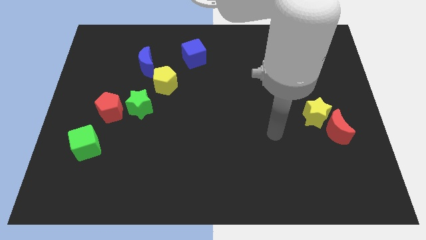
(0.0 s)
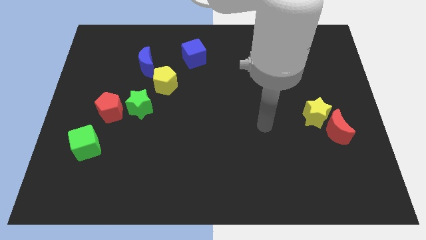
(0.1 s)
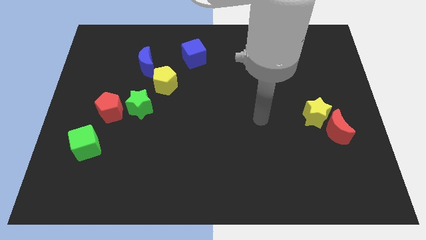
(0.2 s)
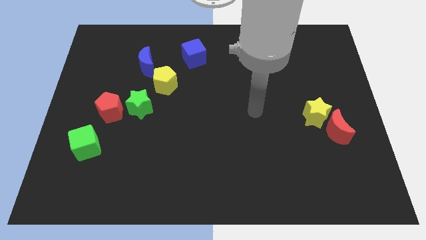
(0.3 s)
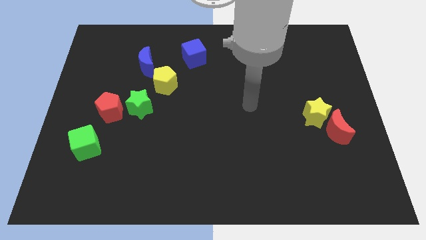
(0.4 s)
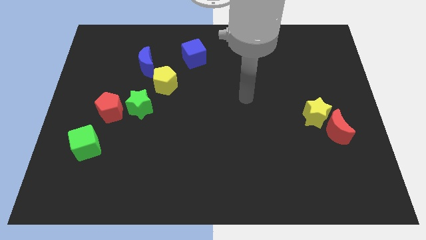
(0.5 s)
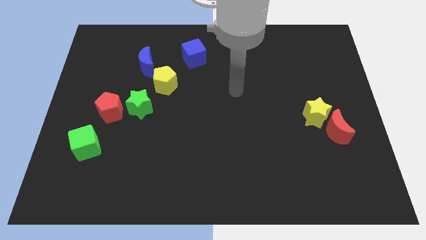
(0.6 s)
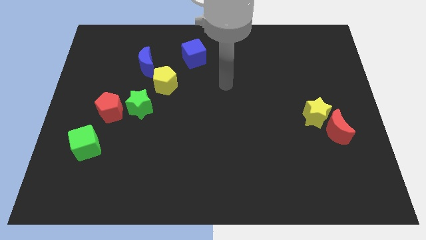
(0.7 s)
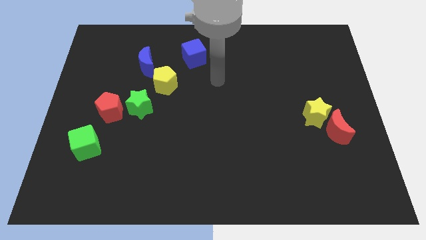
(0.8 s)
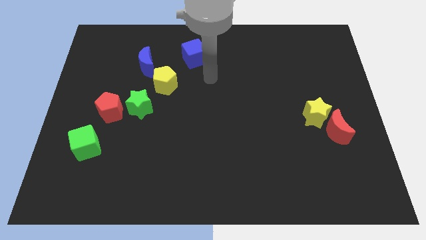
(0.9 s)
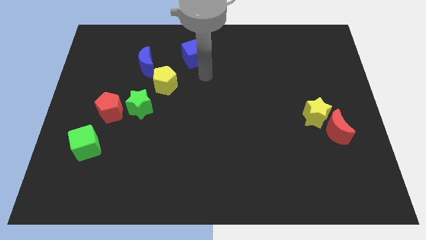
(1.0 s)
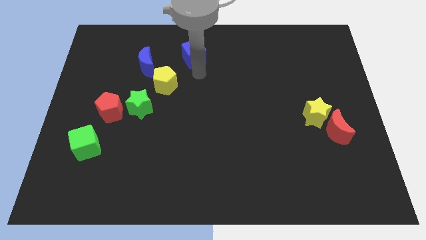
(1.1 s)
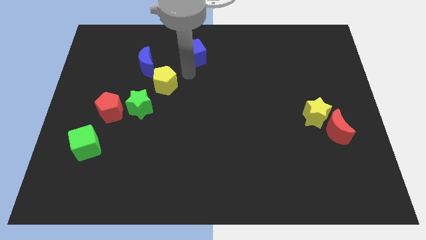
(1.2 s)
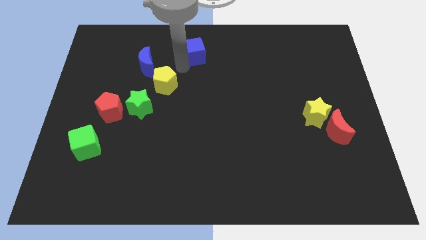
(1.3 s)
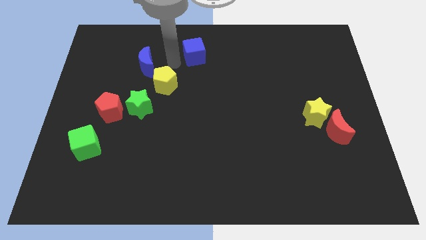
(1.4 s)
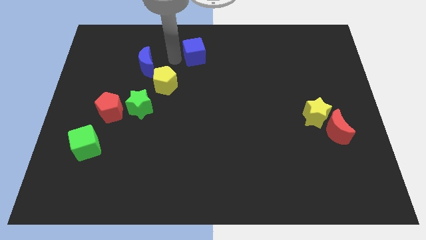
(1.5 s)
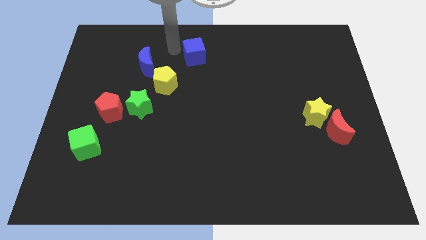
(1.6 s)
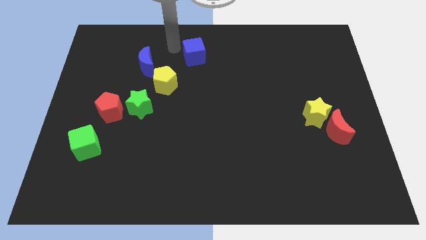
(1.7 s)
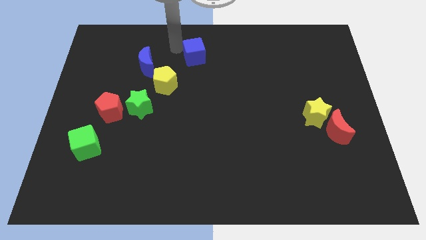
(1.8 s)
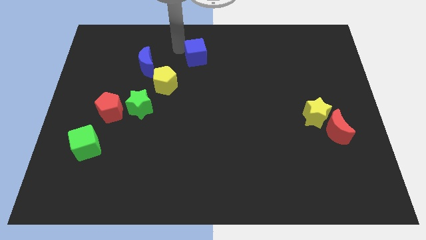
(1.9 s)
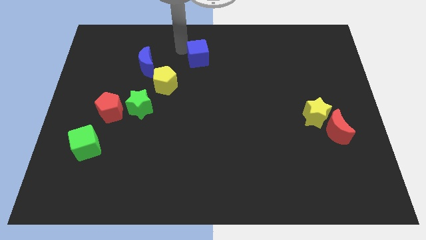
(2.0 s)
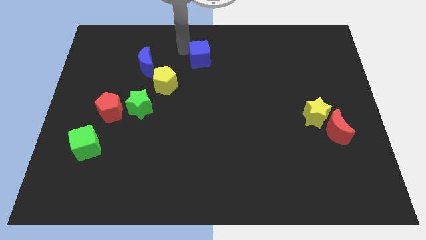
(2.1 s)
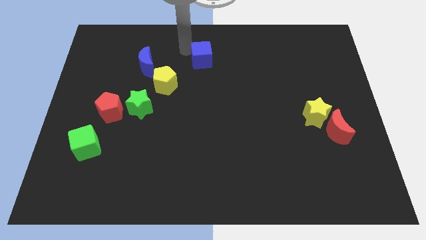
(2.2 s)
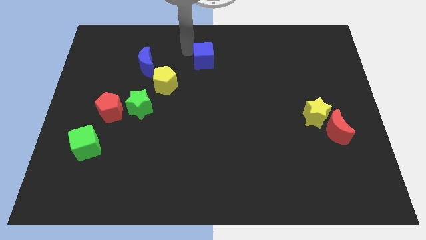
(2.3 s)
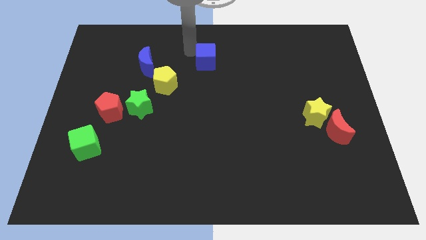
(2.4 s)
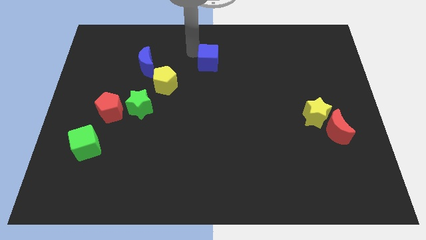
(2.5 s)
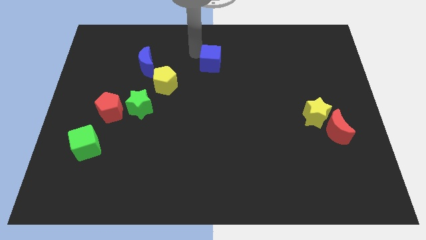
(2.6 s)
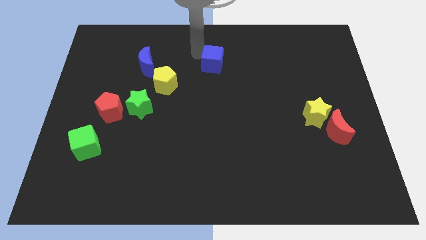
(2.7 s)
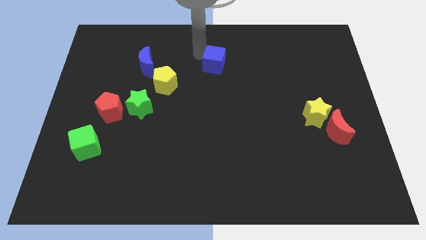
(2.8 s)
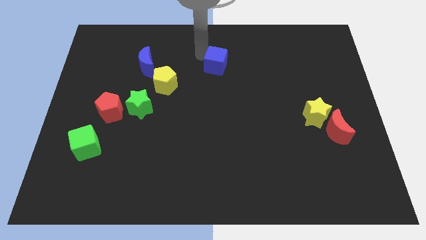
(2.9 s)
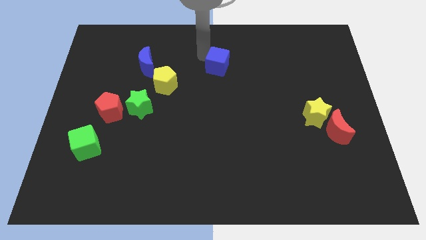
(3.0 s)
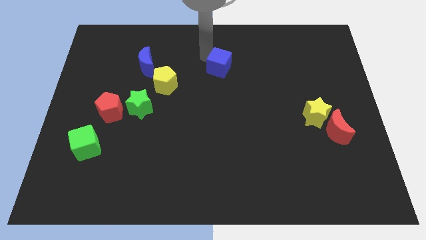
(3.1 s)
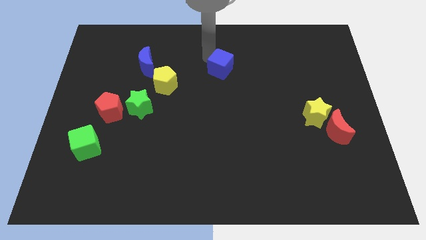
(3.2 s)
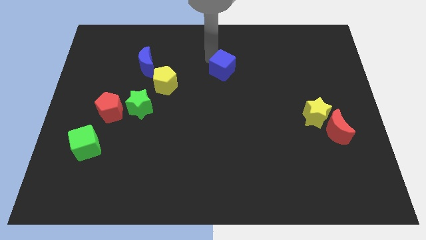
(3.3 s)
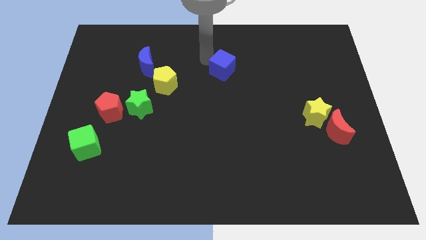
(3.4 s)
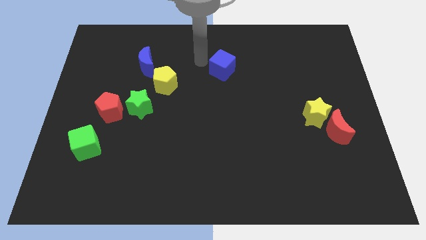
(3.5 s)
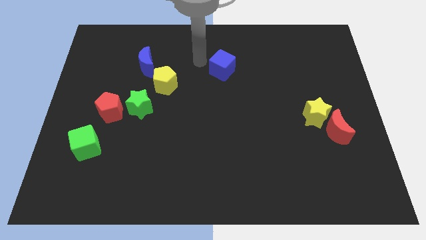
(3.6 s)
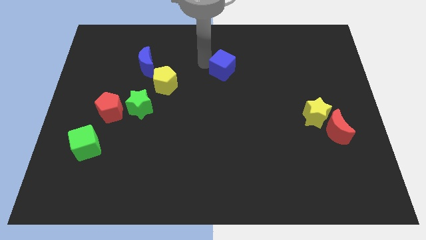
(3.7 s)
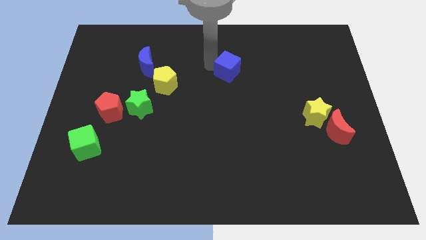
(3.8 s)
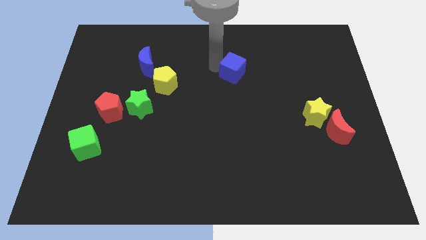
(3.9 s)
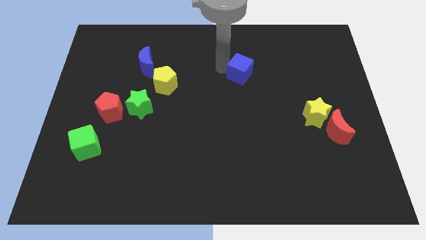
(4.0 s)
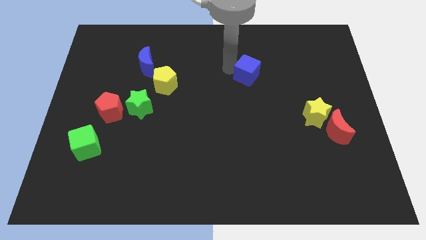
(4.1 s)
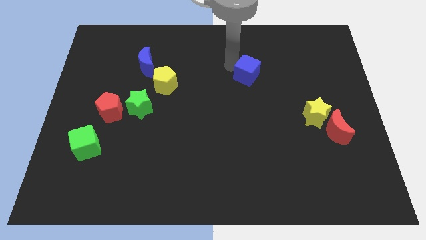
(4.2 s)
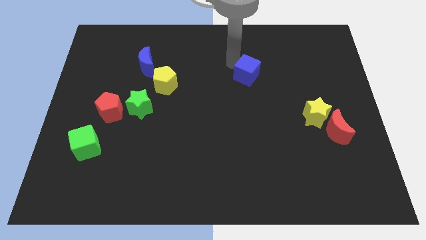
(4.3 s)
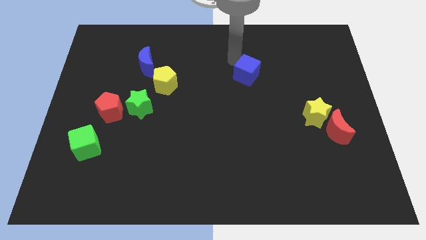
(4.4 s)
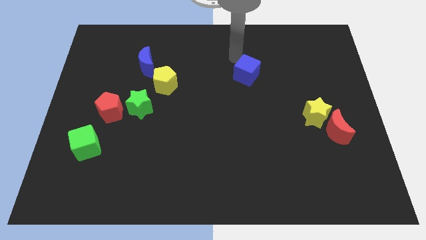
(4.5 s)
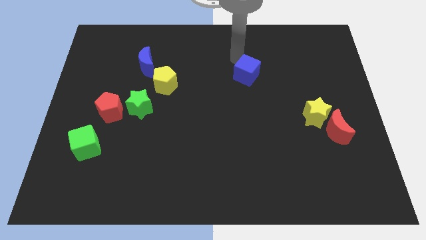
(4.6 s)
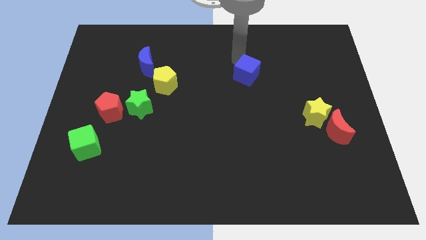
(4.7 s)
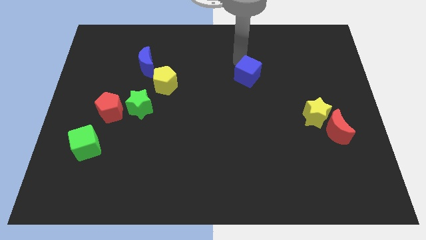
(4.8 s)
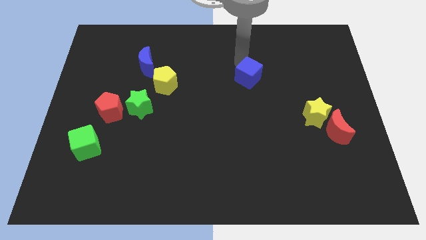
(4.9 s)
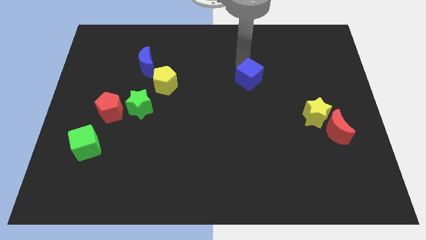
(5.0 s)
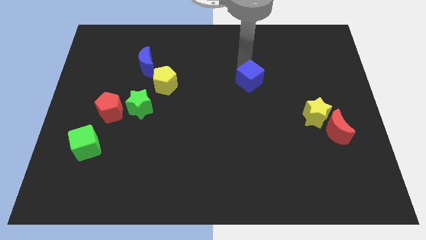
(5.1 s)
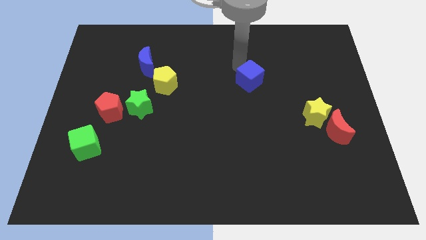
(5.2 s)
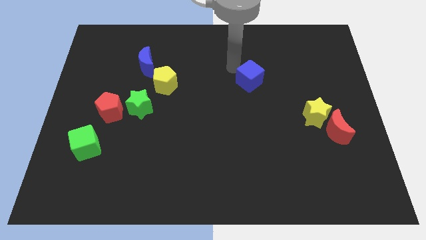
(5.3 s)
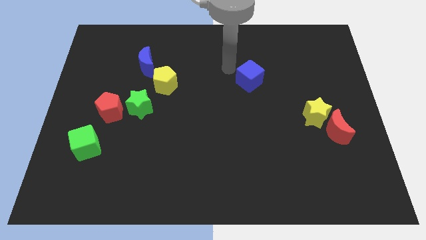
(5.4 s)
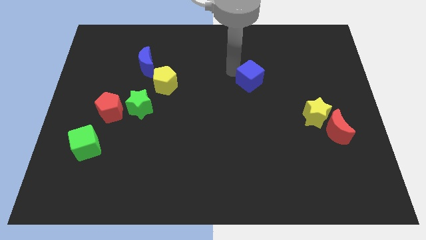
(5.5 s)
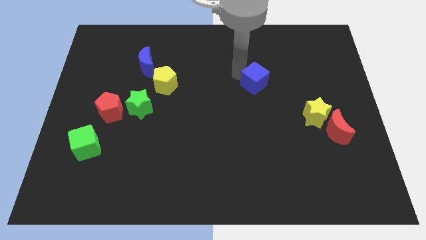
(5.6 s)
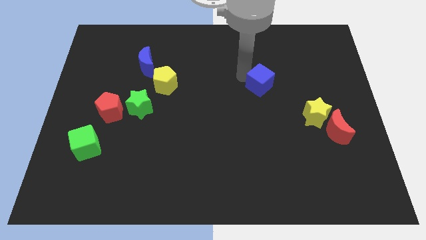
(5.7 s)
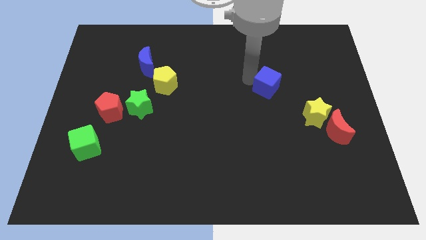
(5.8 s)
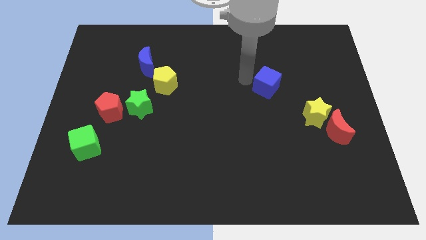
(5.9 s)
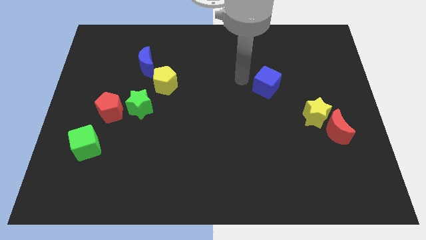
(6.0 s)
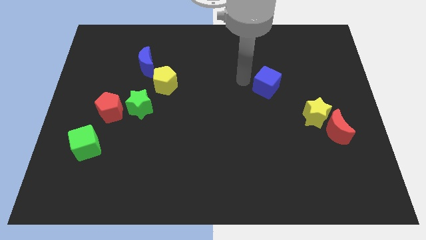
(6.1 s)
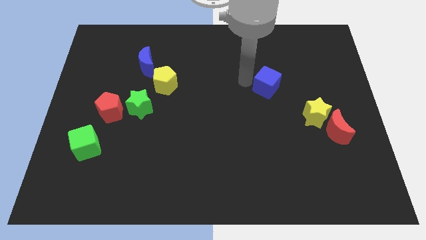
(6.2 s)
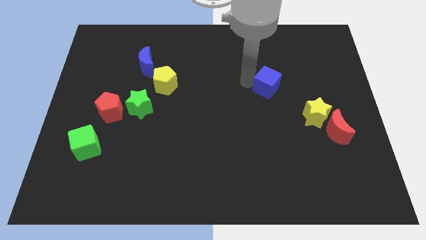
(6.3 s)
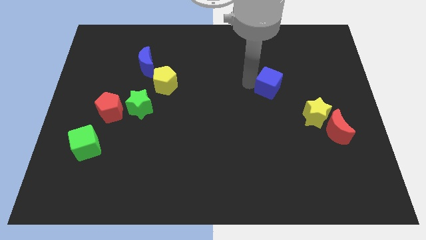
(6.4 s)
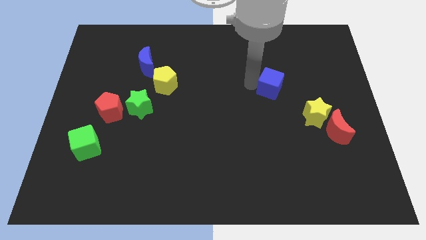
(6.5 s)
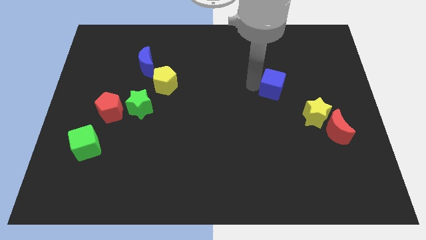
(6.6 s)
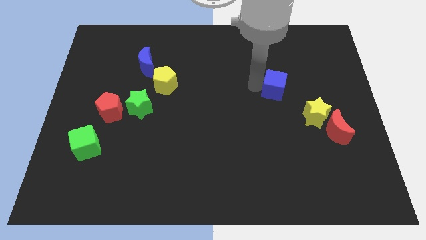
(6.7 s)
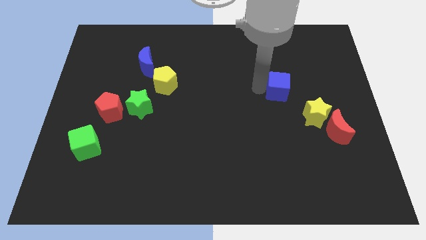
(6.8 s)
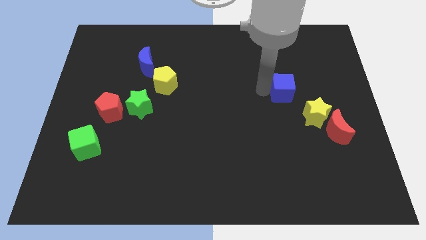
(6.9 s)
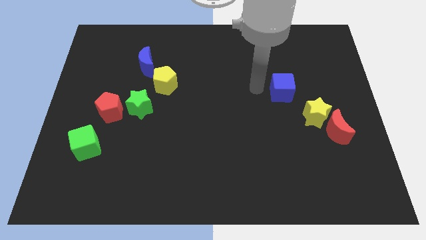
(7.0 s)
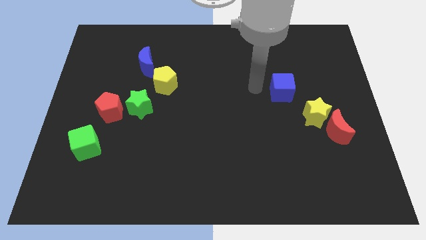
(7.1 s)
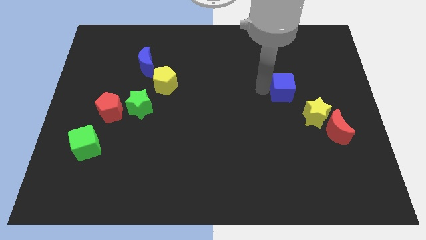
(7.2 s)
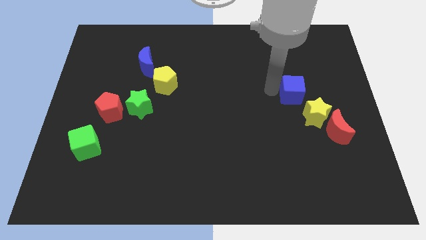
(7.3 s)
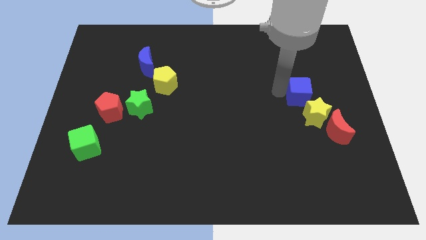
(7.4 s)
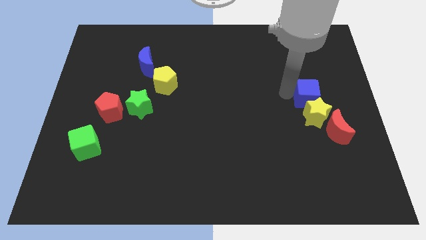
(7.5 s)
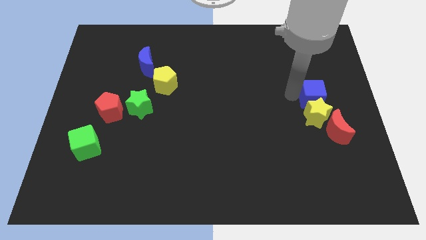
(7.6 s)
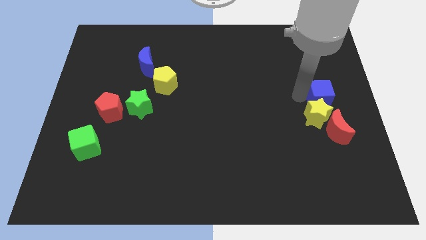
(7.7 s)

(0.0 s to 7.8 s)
put the blue cube to the center right
